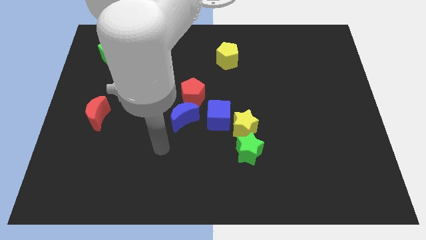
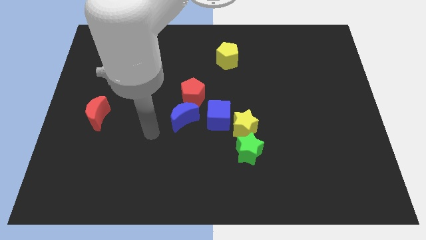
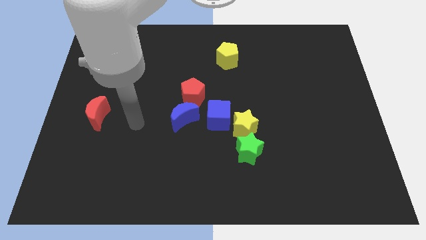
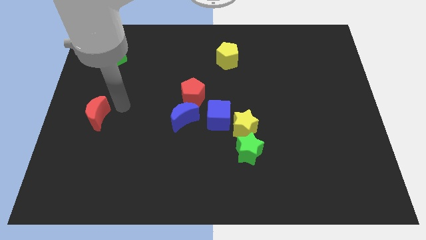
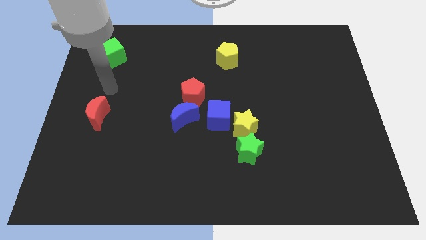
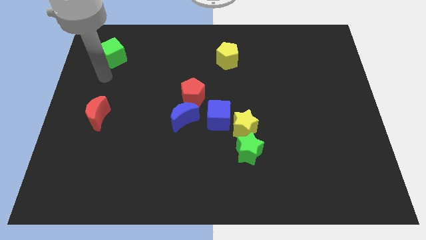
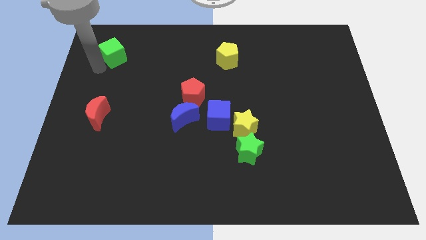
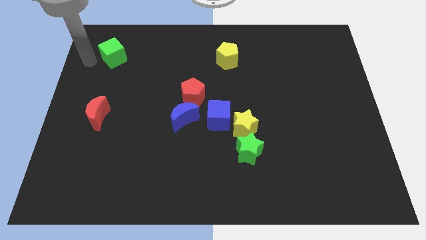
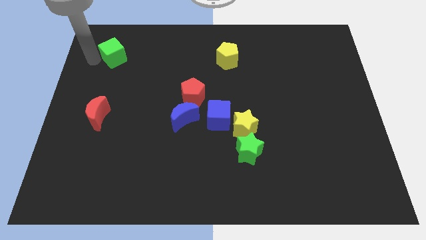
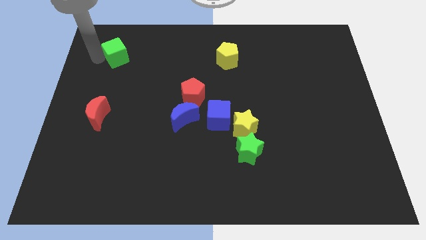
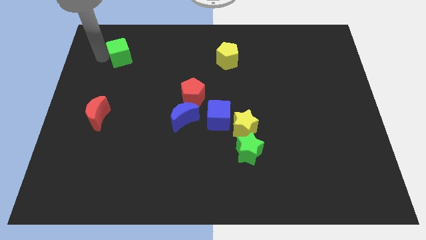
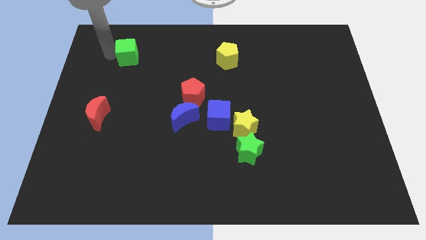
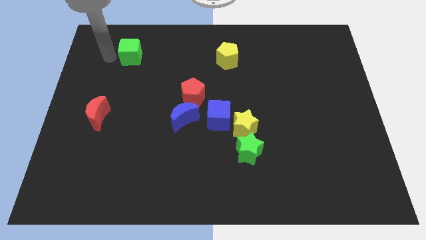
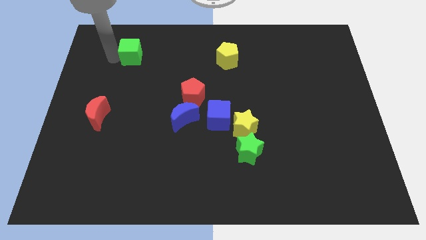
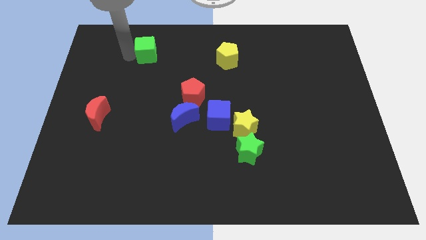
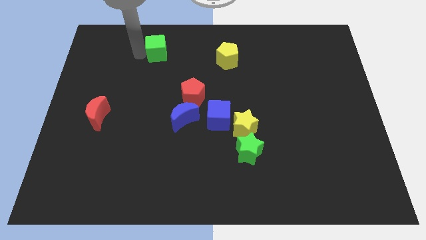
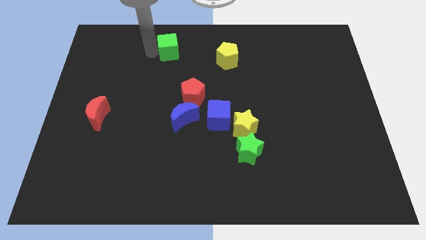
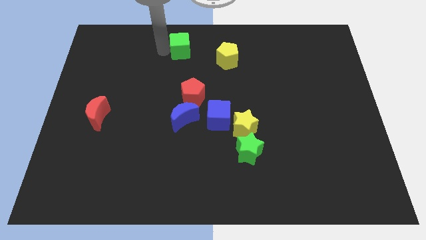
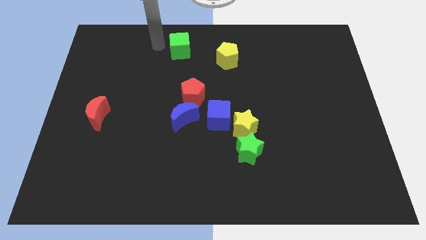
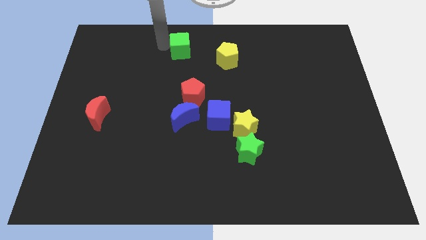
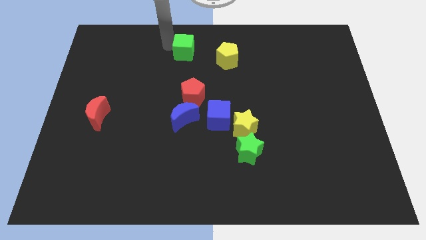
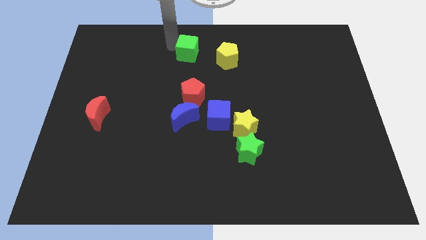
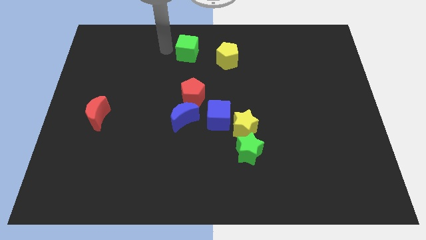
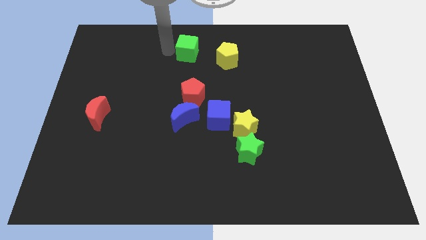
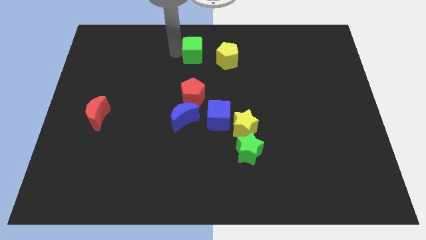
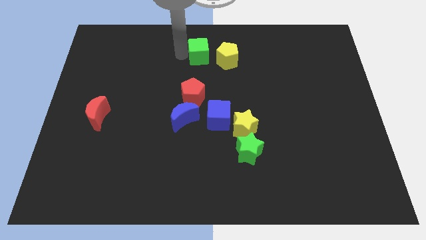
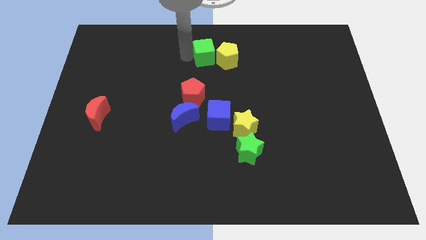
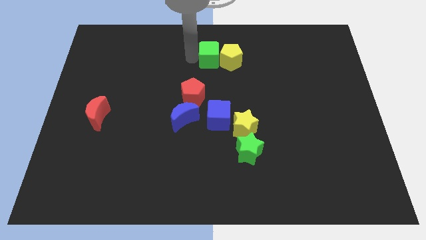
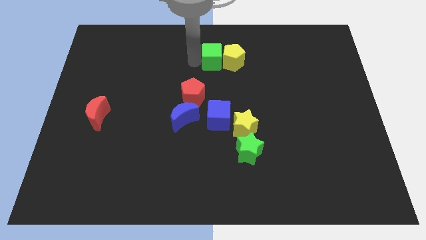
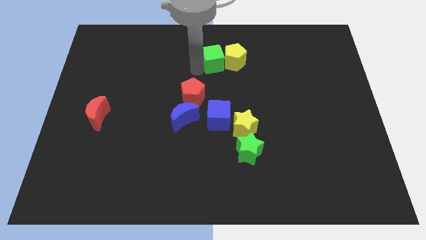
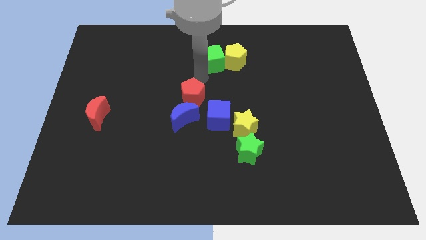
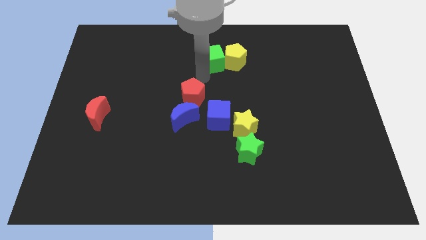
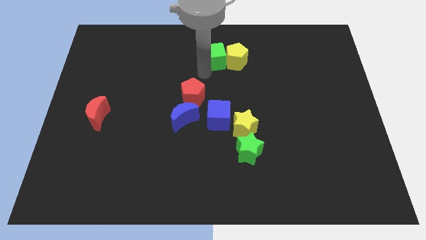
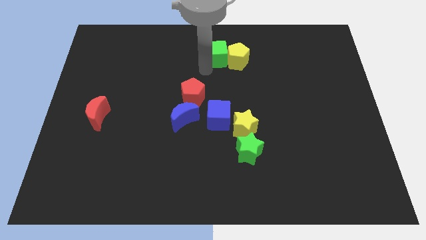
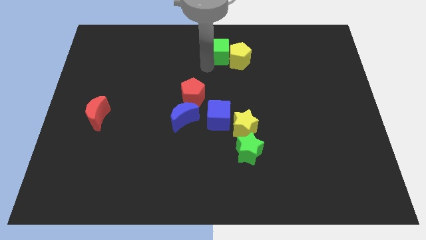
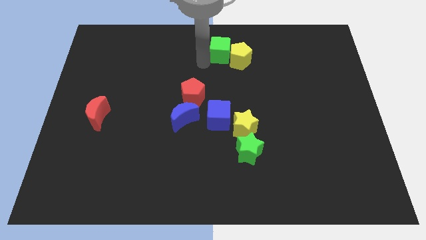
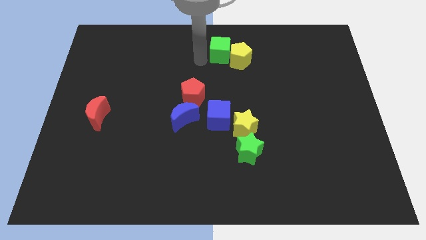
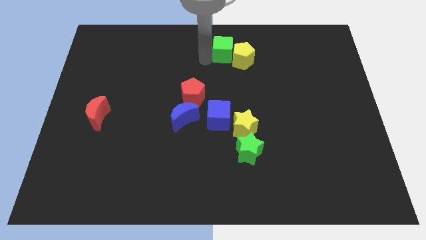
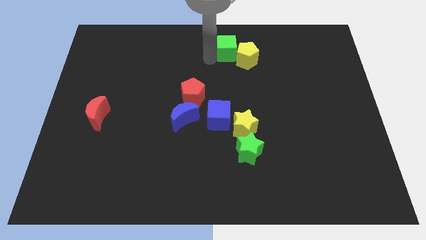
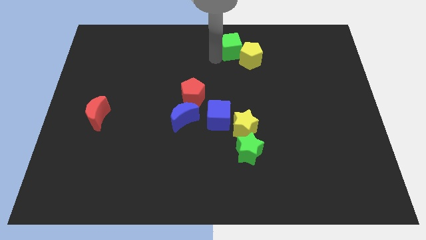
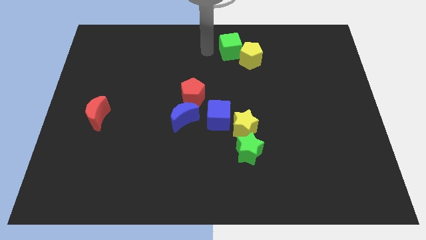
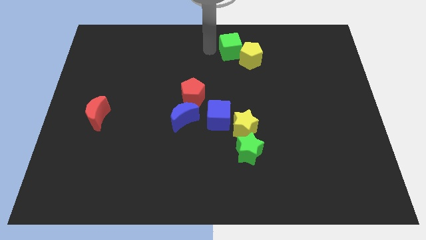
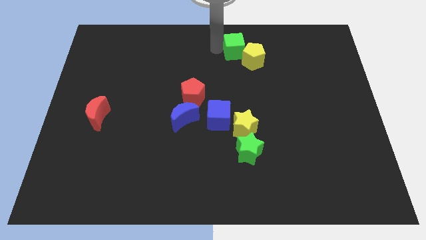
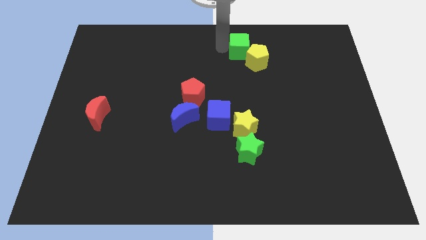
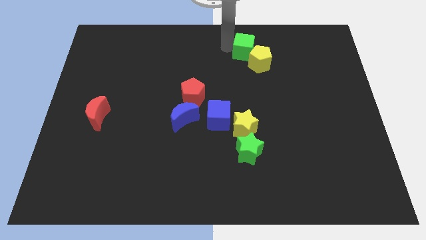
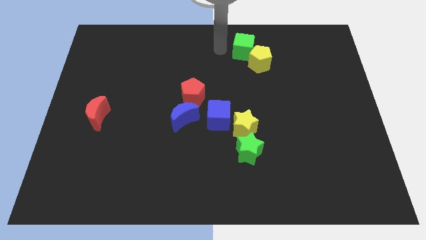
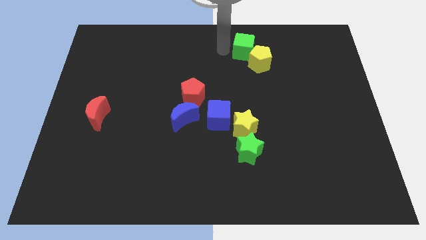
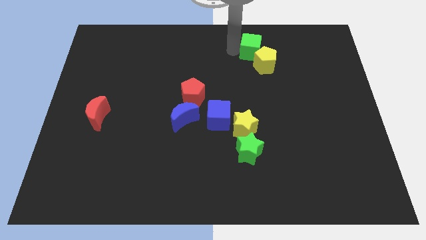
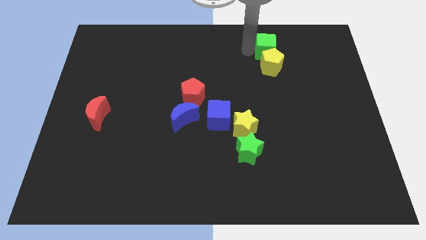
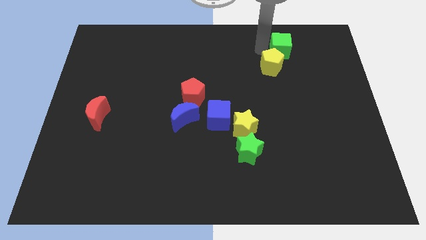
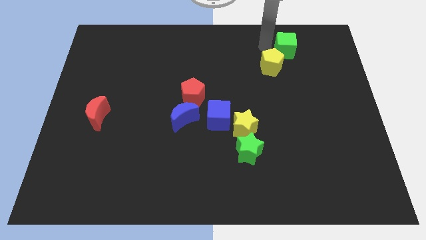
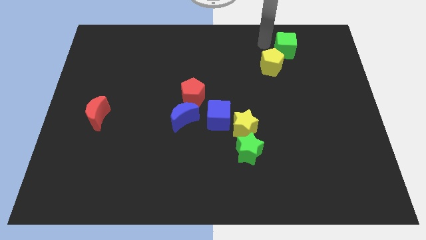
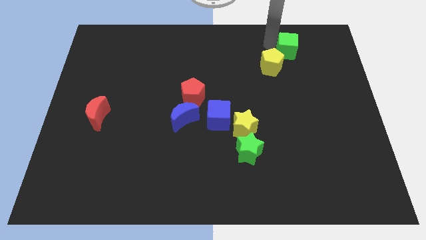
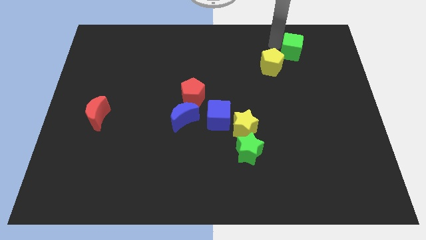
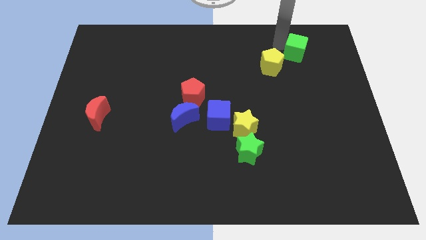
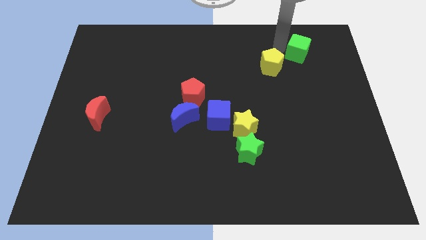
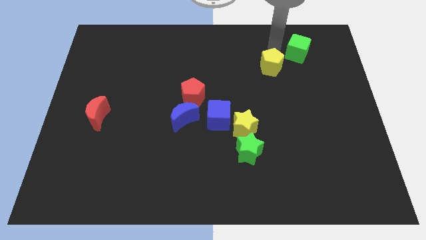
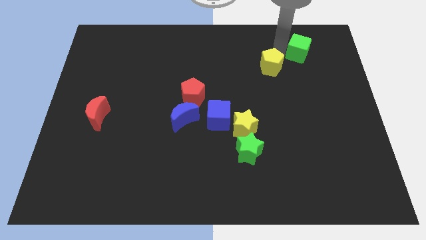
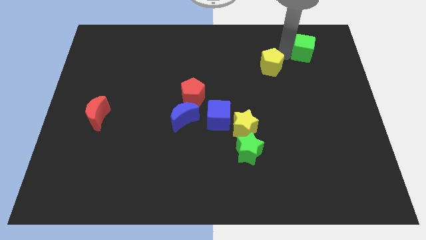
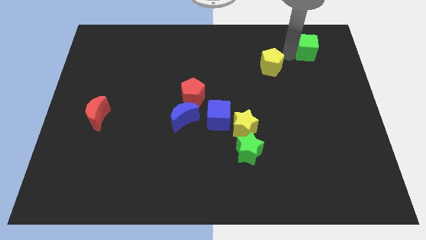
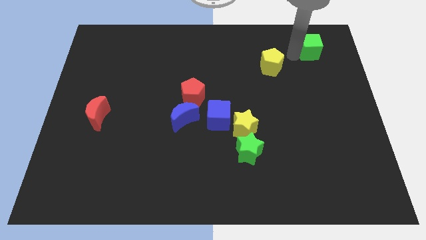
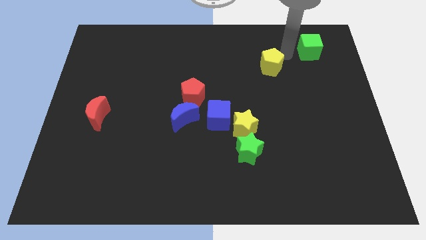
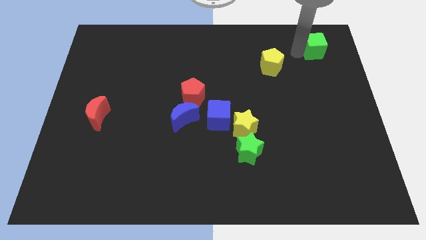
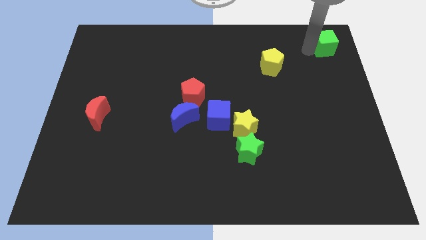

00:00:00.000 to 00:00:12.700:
push the green cube to the top right corner
